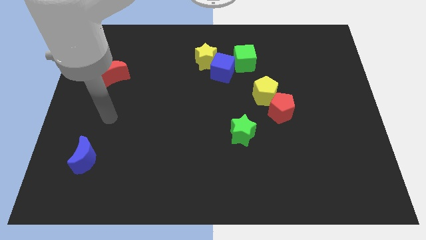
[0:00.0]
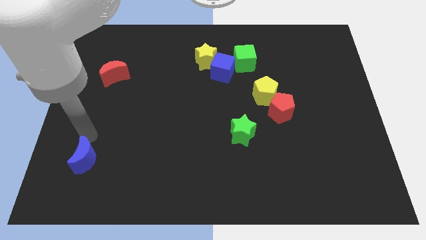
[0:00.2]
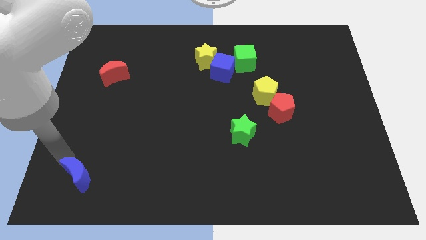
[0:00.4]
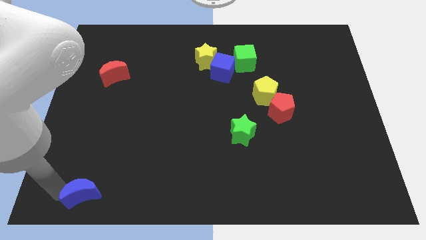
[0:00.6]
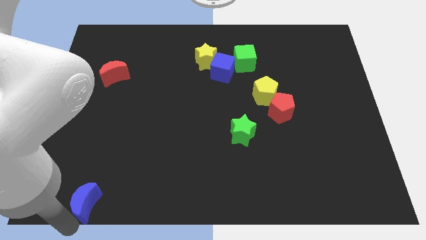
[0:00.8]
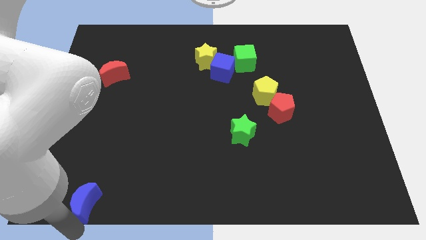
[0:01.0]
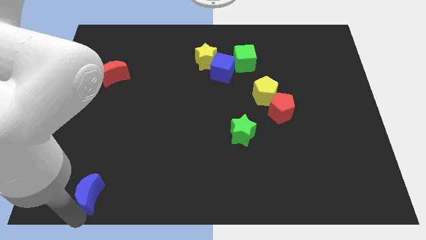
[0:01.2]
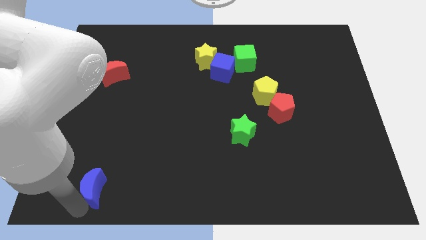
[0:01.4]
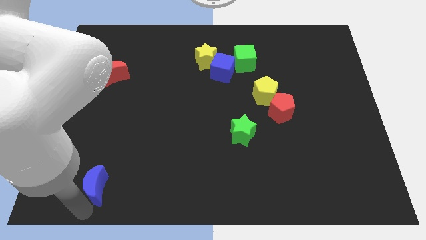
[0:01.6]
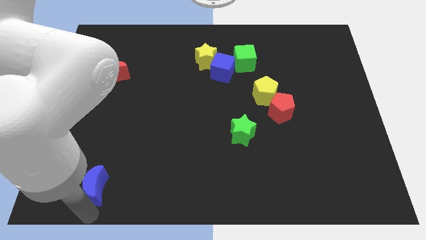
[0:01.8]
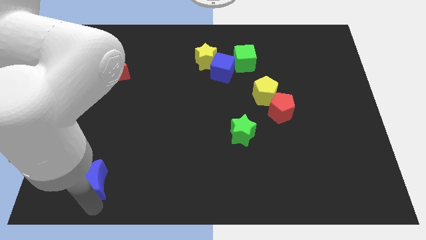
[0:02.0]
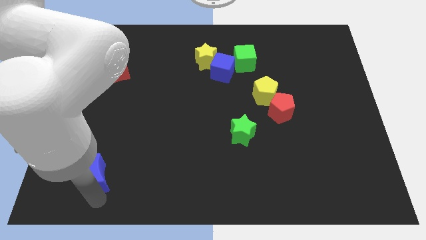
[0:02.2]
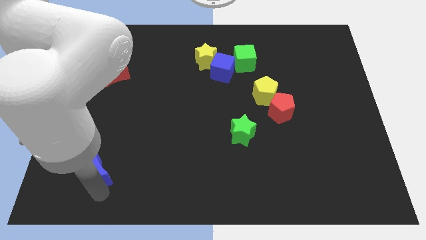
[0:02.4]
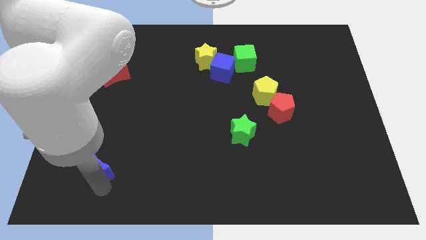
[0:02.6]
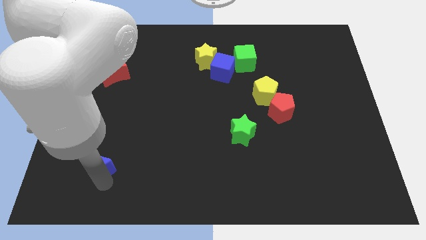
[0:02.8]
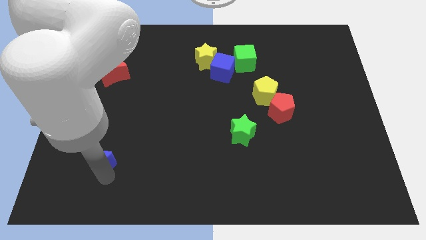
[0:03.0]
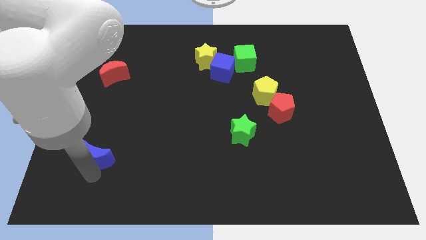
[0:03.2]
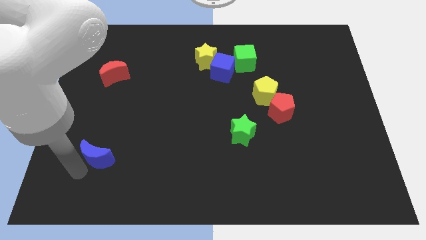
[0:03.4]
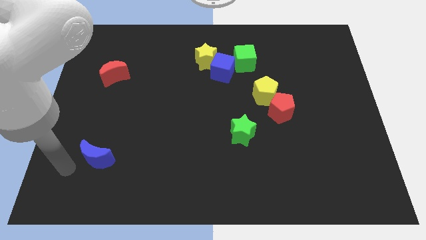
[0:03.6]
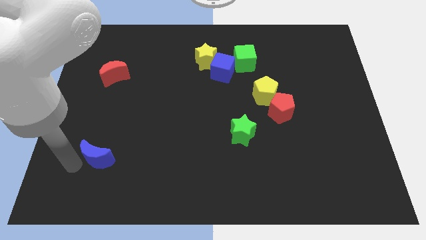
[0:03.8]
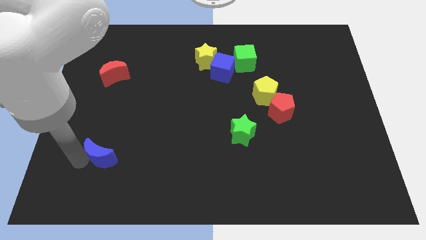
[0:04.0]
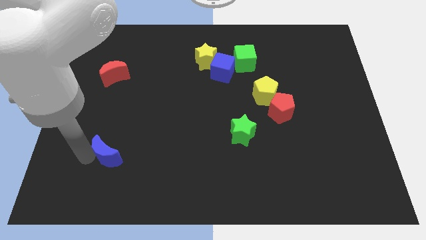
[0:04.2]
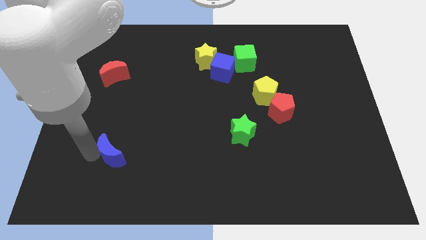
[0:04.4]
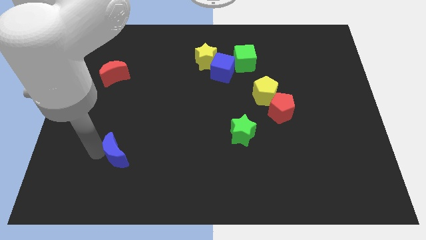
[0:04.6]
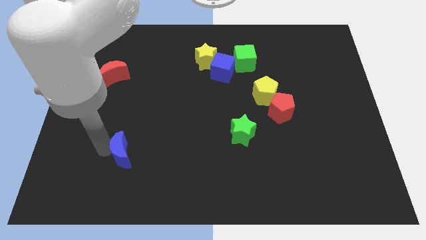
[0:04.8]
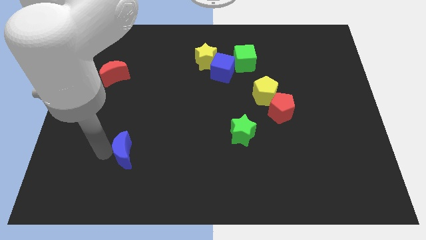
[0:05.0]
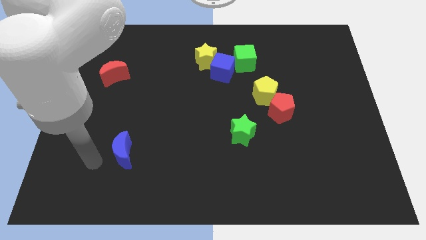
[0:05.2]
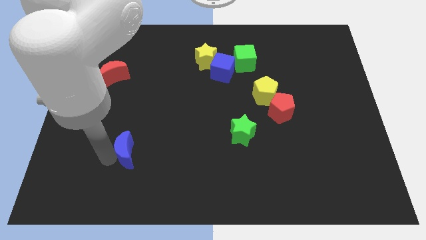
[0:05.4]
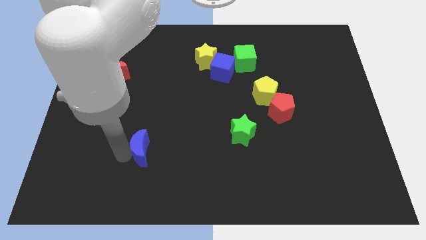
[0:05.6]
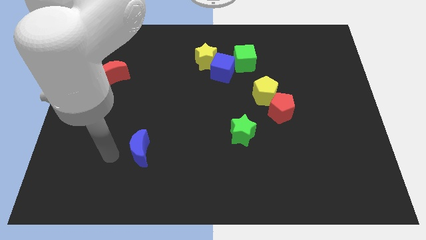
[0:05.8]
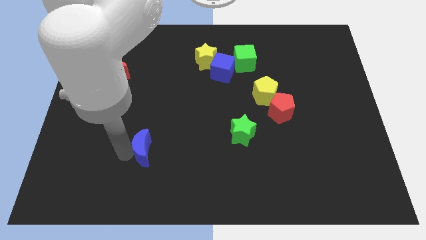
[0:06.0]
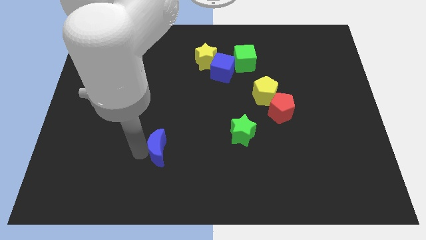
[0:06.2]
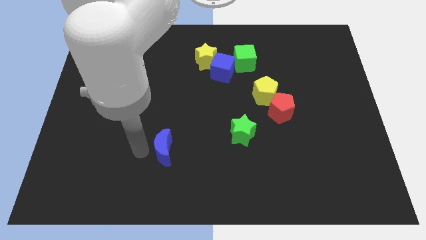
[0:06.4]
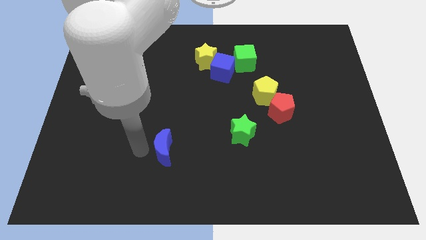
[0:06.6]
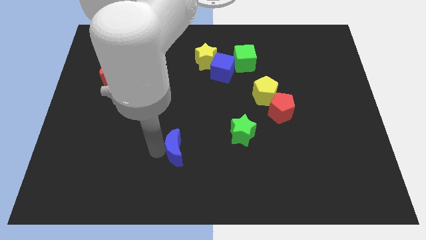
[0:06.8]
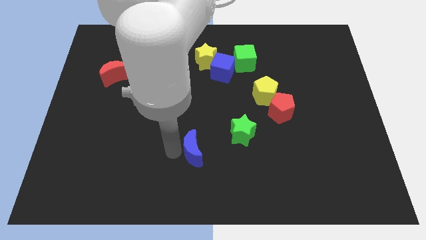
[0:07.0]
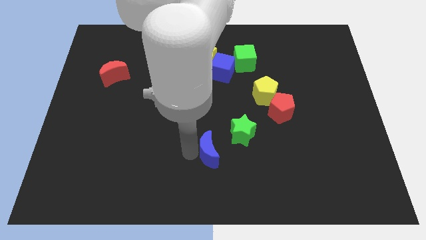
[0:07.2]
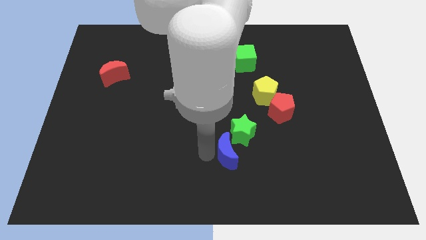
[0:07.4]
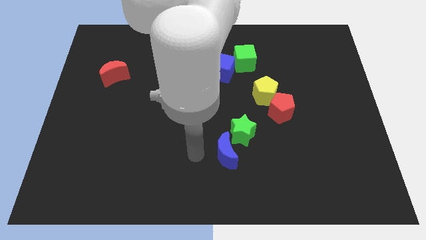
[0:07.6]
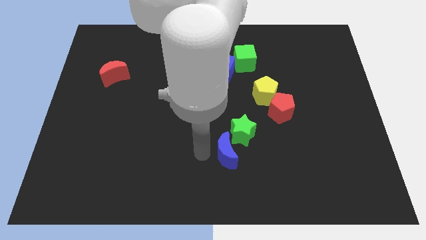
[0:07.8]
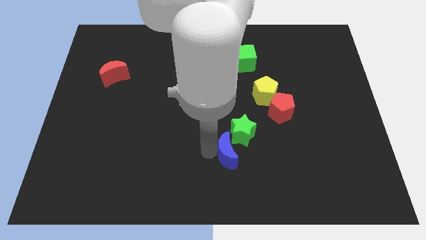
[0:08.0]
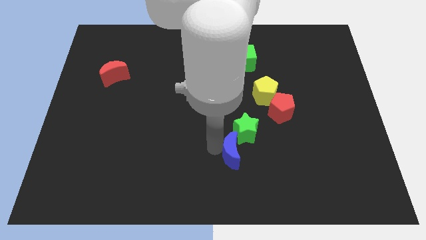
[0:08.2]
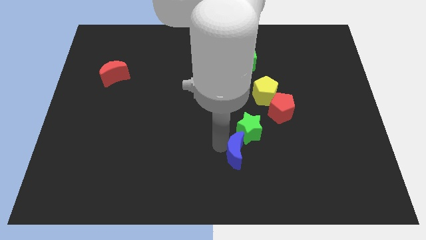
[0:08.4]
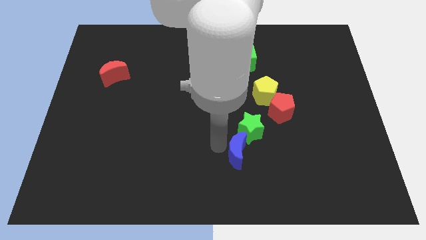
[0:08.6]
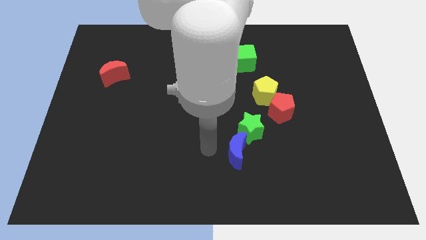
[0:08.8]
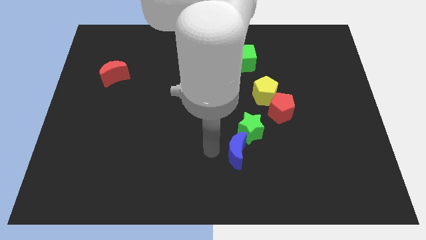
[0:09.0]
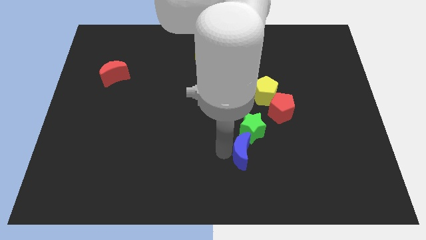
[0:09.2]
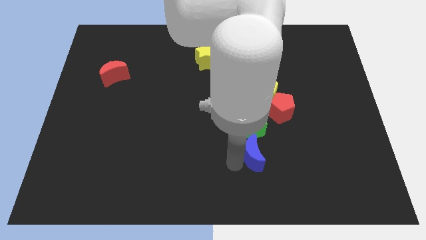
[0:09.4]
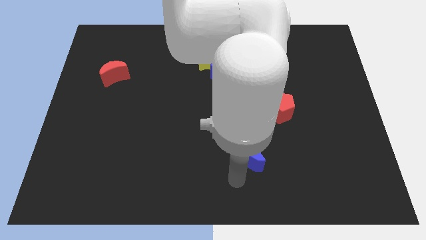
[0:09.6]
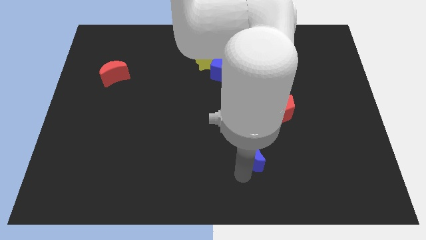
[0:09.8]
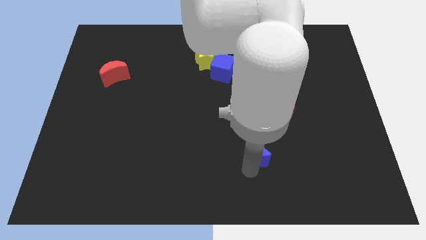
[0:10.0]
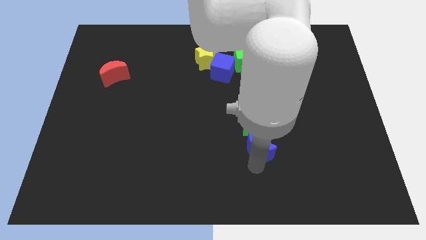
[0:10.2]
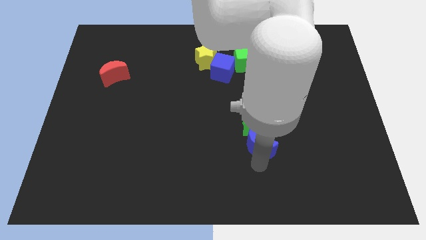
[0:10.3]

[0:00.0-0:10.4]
push the blue moon to the bottom of the yellow pentagon

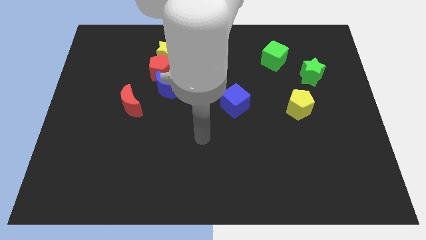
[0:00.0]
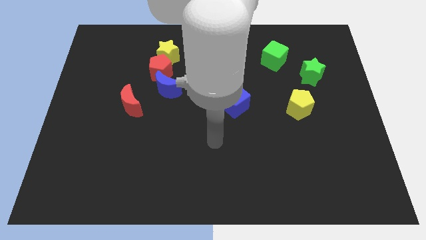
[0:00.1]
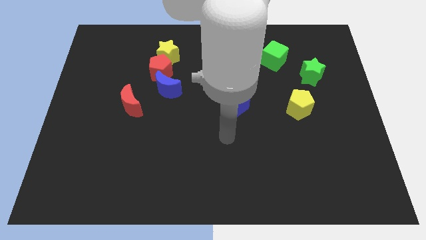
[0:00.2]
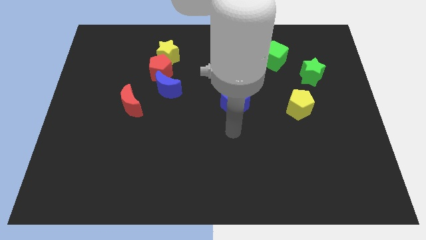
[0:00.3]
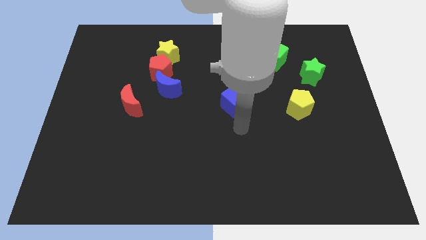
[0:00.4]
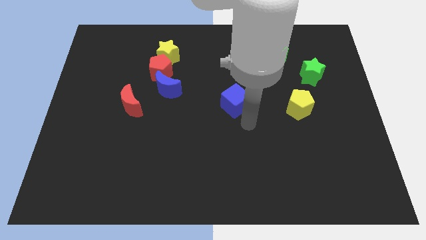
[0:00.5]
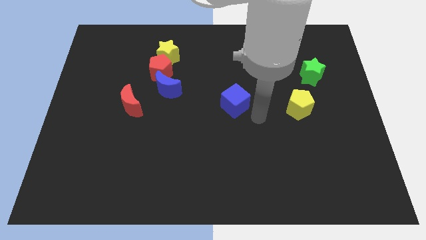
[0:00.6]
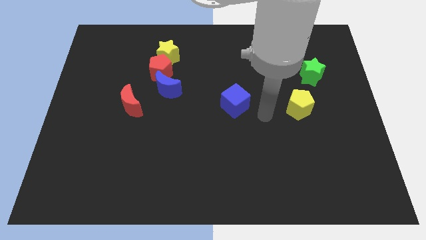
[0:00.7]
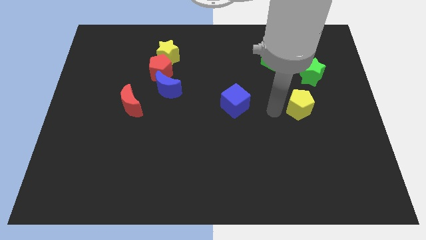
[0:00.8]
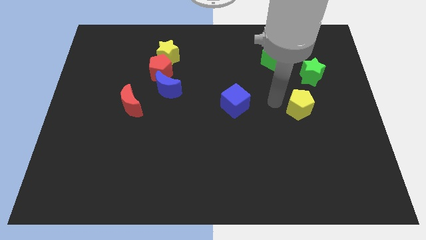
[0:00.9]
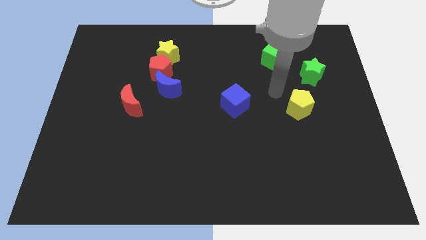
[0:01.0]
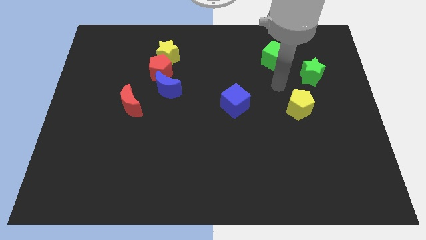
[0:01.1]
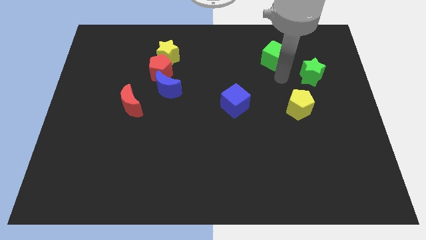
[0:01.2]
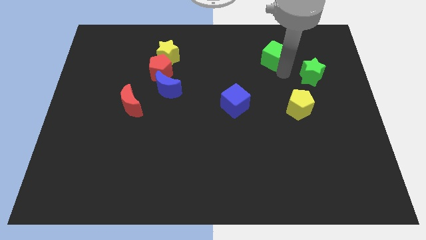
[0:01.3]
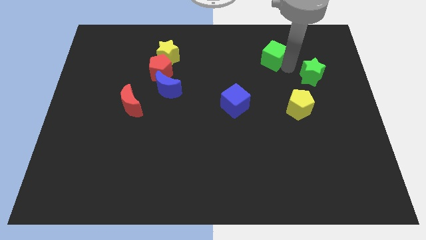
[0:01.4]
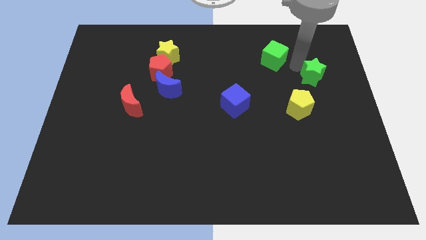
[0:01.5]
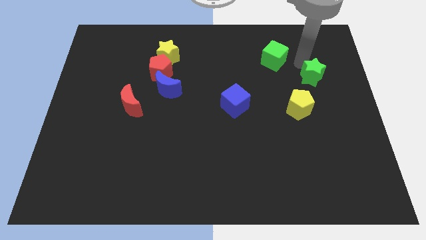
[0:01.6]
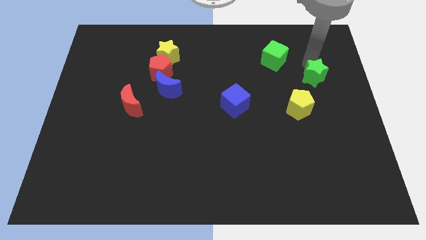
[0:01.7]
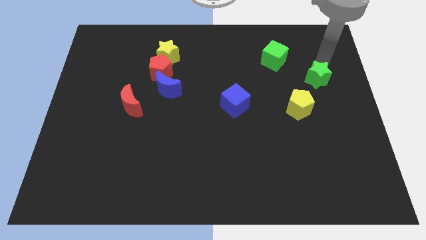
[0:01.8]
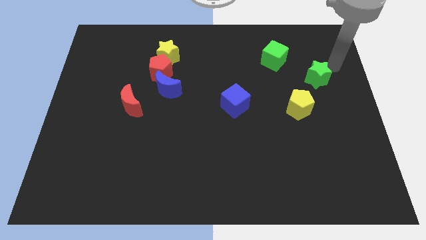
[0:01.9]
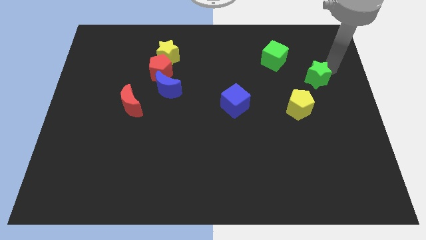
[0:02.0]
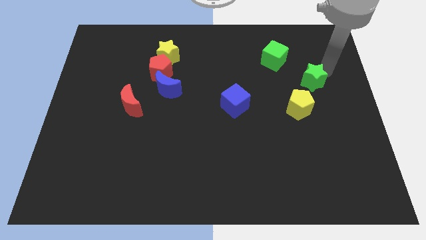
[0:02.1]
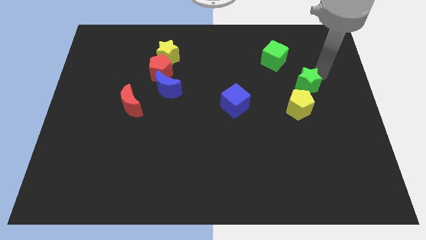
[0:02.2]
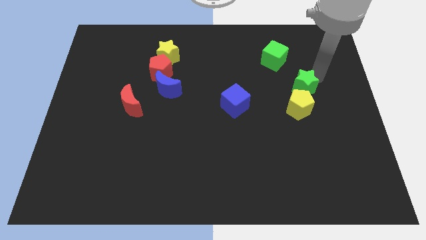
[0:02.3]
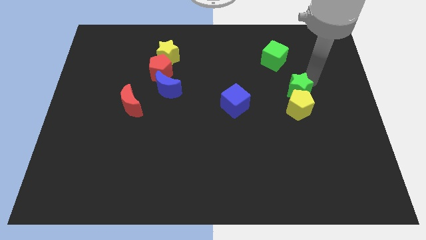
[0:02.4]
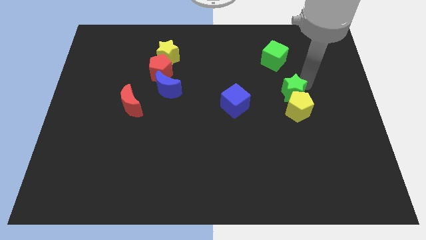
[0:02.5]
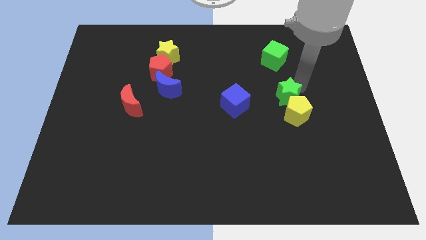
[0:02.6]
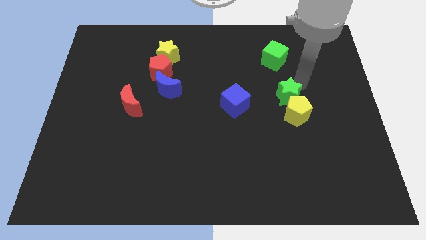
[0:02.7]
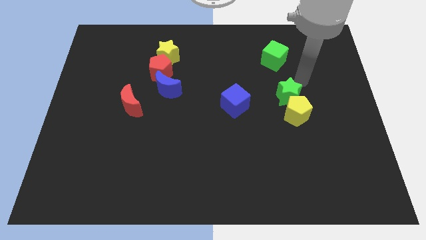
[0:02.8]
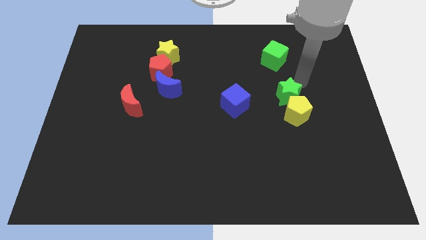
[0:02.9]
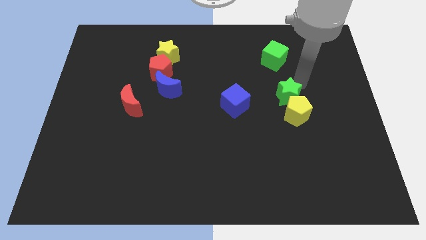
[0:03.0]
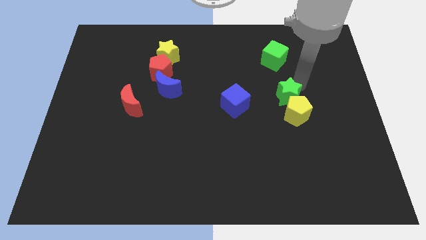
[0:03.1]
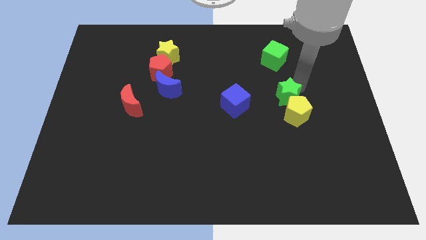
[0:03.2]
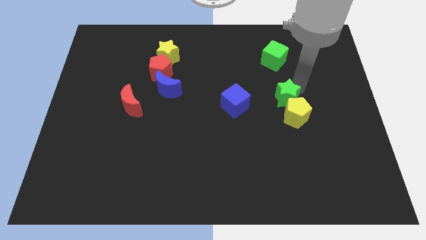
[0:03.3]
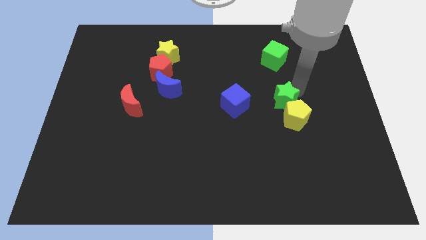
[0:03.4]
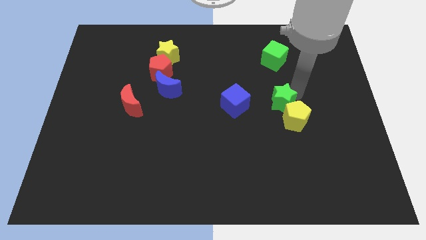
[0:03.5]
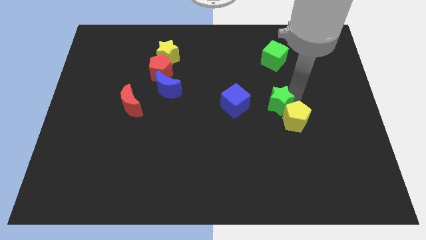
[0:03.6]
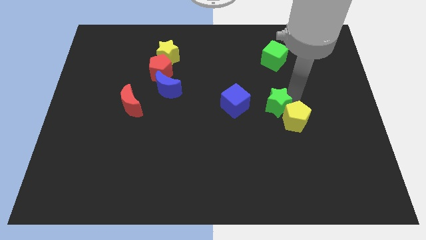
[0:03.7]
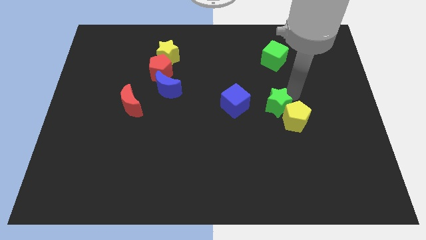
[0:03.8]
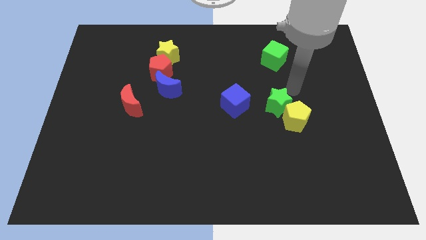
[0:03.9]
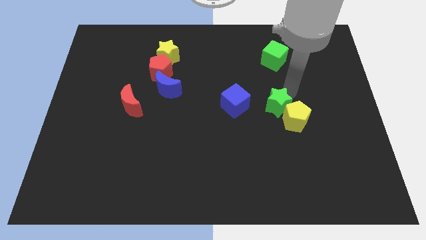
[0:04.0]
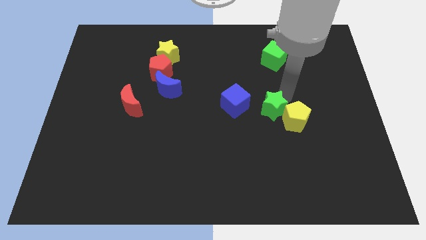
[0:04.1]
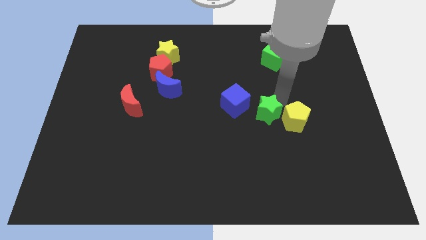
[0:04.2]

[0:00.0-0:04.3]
push the green star to the bottom right side of the blue cube
